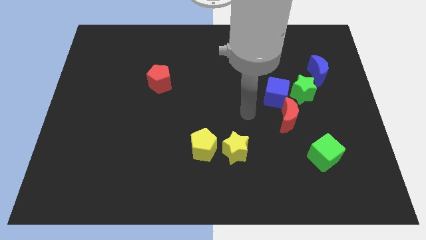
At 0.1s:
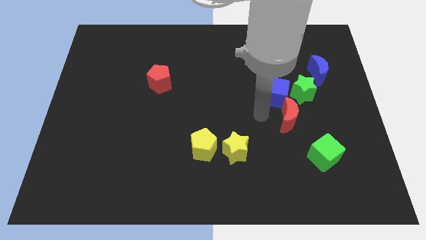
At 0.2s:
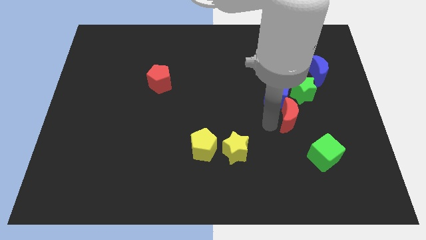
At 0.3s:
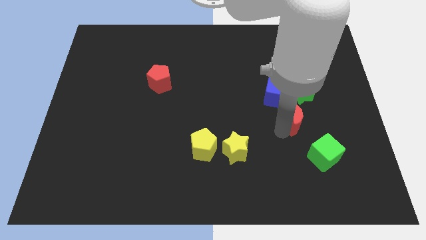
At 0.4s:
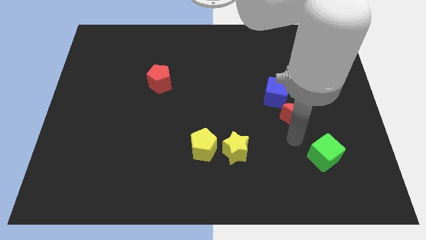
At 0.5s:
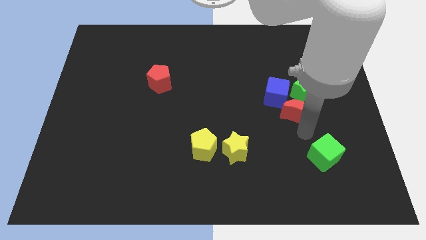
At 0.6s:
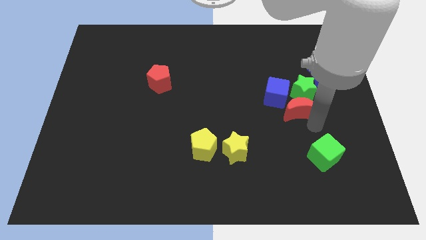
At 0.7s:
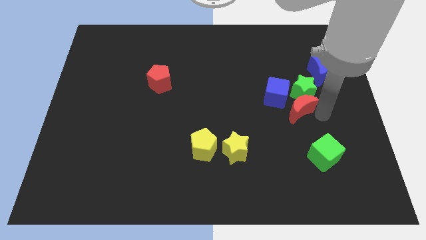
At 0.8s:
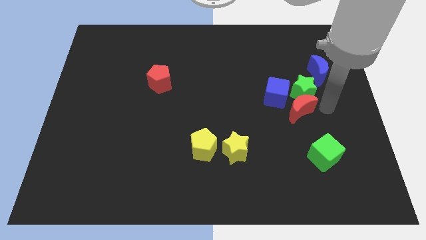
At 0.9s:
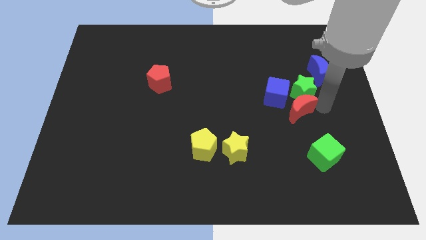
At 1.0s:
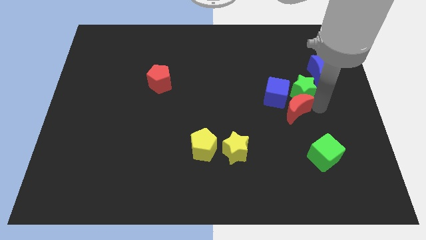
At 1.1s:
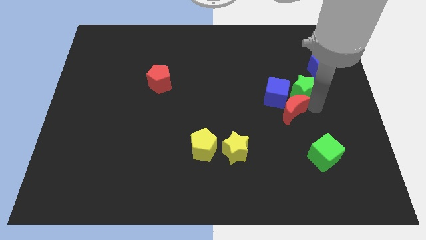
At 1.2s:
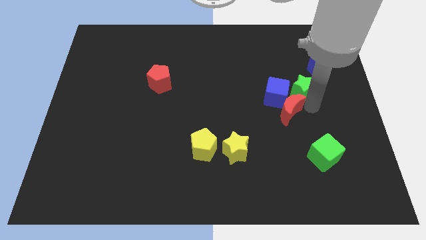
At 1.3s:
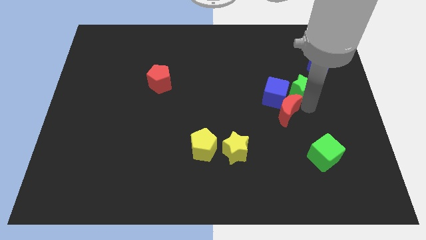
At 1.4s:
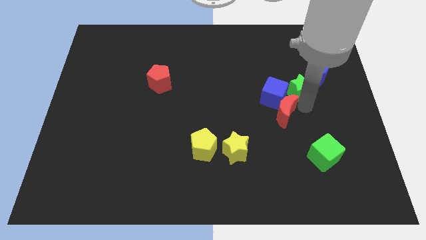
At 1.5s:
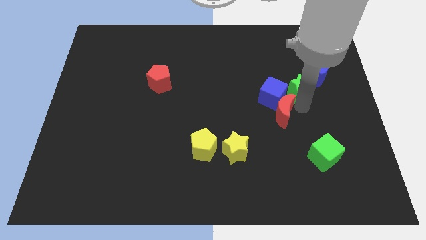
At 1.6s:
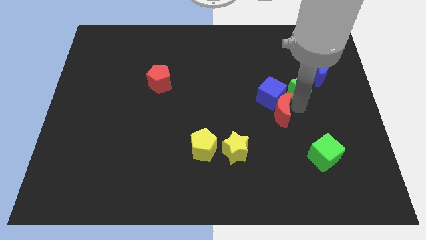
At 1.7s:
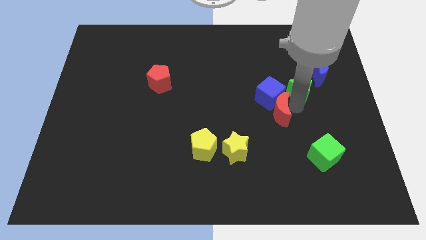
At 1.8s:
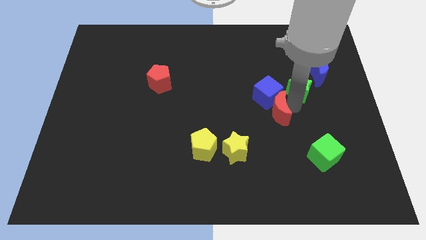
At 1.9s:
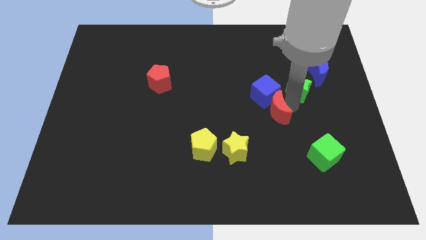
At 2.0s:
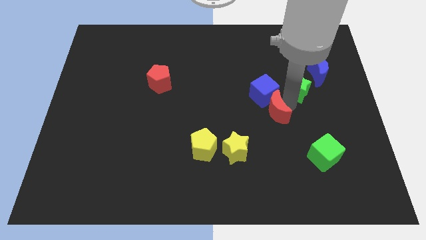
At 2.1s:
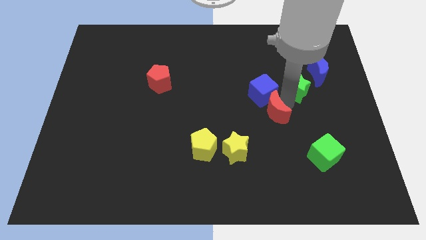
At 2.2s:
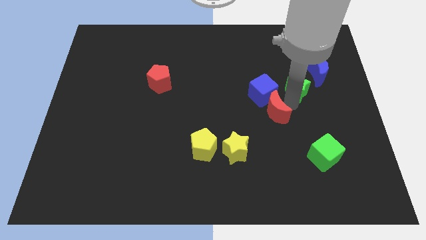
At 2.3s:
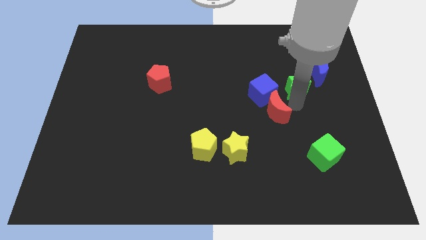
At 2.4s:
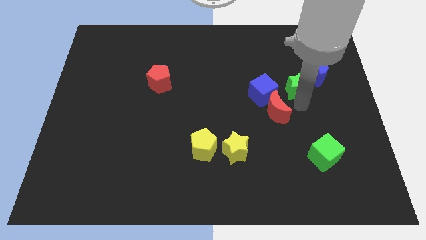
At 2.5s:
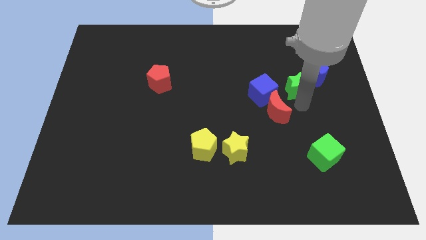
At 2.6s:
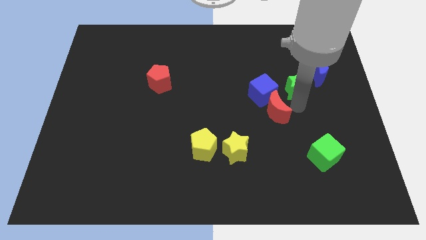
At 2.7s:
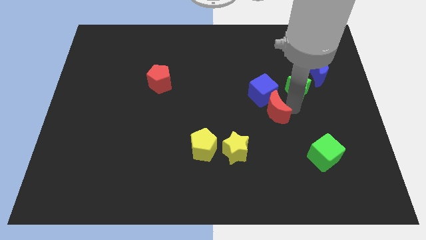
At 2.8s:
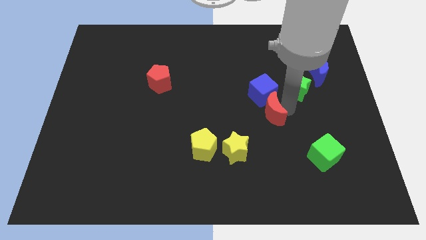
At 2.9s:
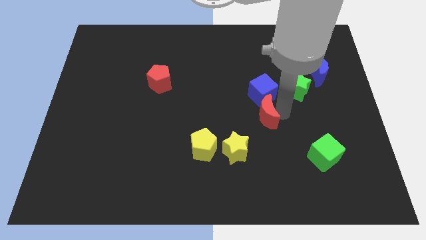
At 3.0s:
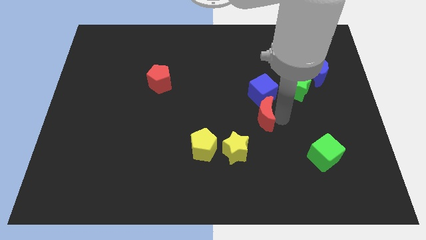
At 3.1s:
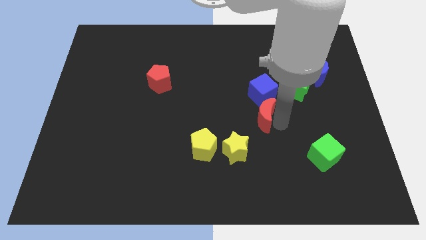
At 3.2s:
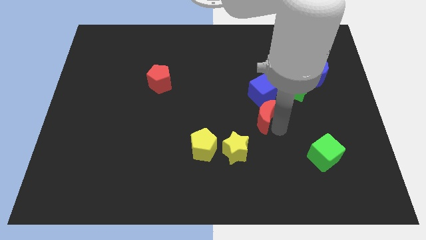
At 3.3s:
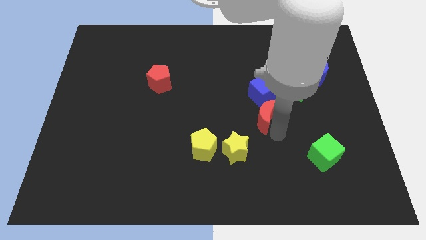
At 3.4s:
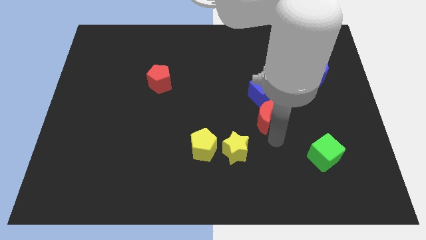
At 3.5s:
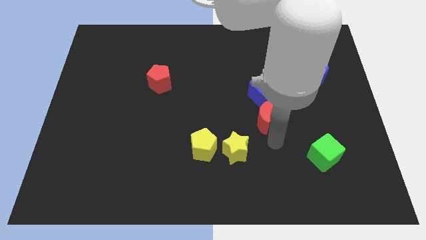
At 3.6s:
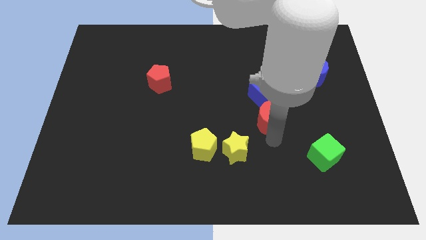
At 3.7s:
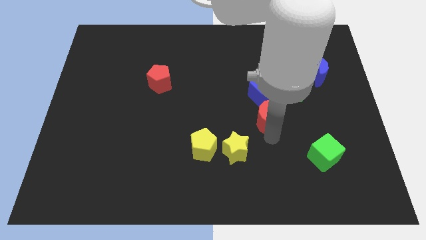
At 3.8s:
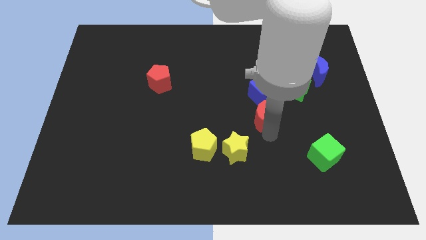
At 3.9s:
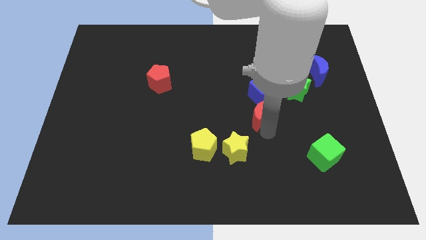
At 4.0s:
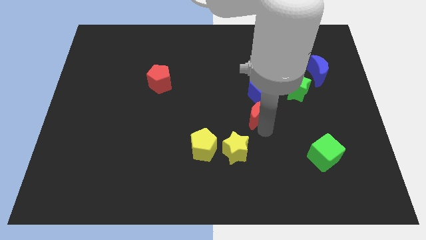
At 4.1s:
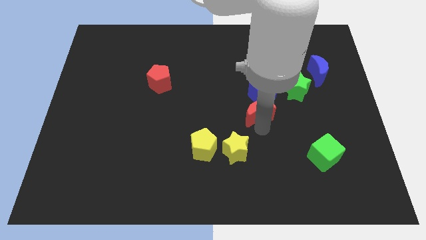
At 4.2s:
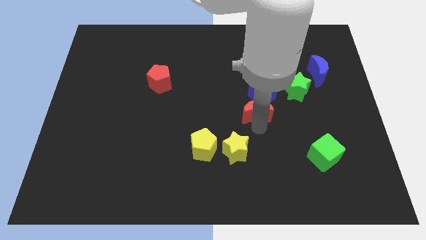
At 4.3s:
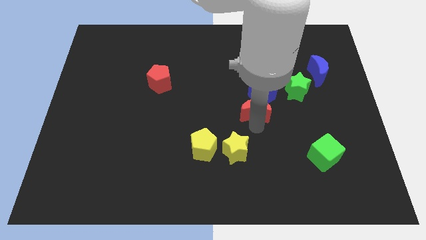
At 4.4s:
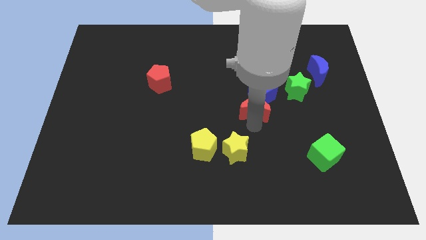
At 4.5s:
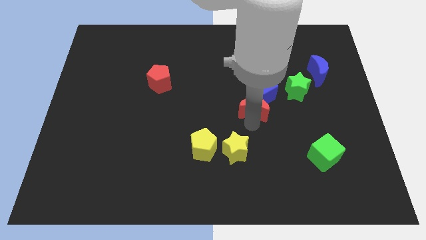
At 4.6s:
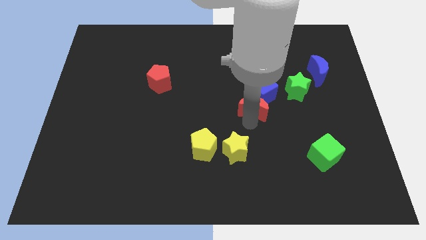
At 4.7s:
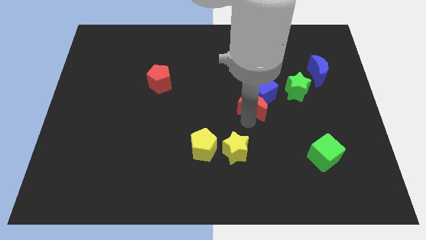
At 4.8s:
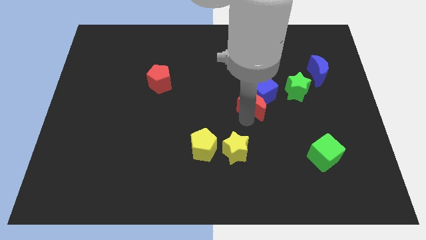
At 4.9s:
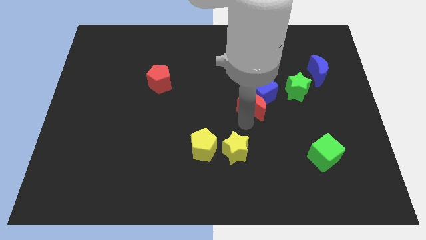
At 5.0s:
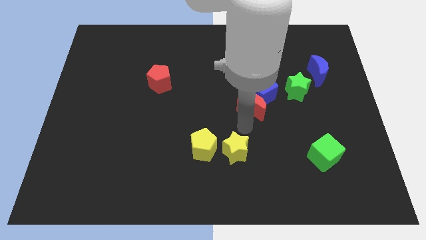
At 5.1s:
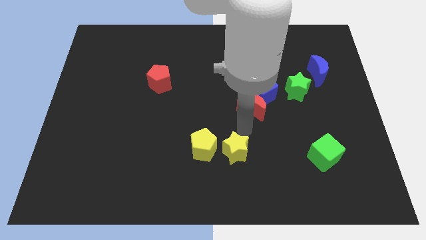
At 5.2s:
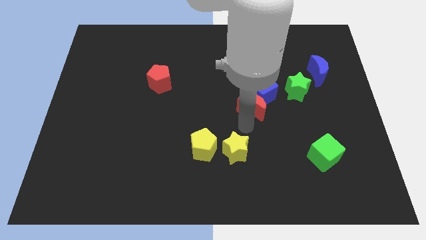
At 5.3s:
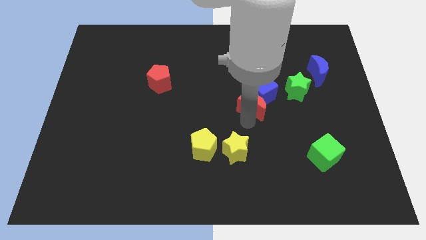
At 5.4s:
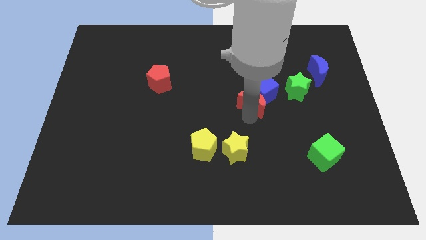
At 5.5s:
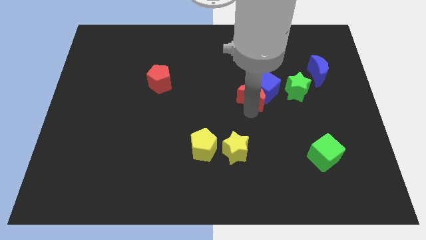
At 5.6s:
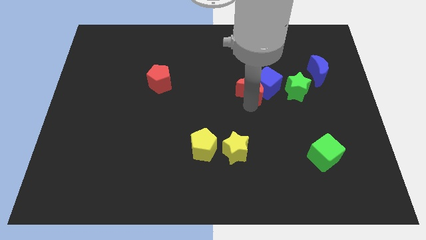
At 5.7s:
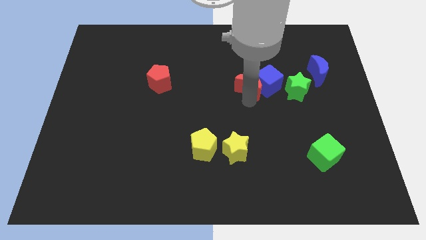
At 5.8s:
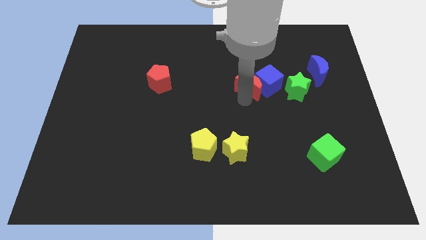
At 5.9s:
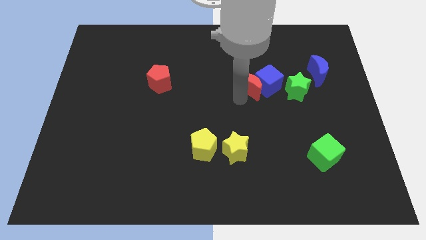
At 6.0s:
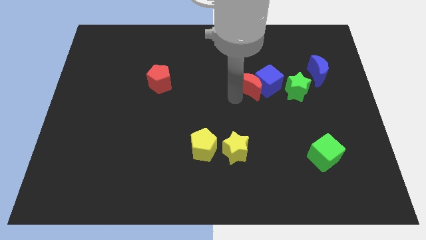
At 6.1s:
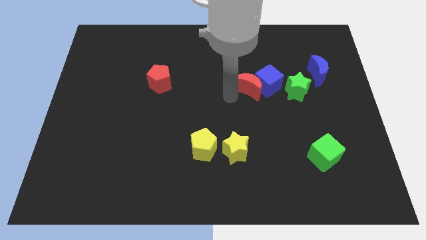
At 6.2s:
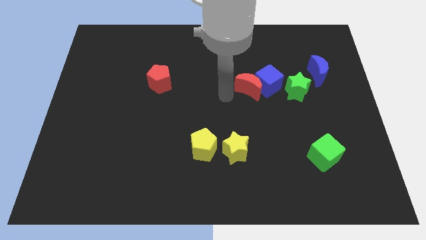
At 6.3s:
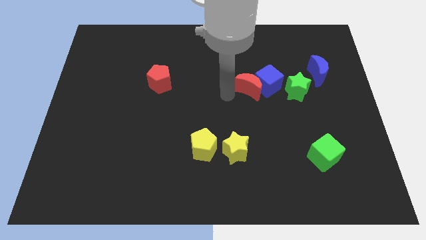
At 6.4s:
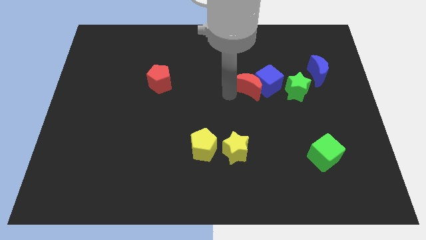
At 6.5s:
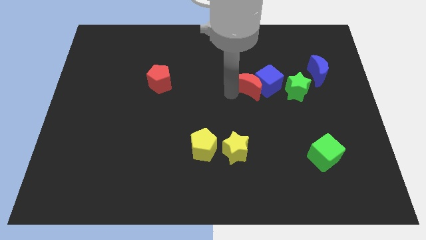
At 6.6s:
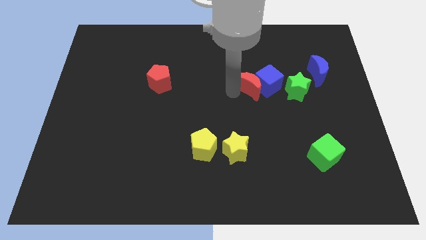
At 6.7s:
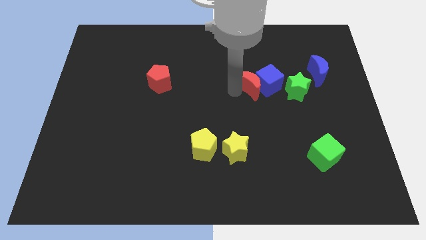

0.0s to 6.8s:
move the red moon a little bit up

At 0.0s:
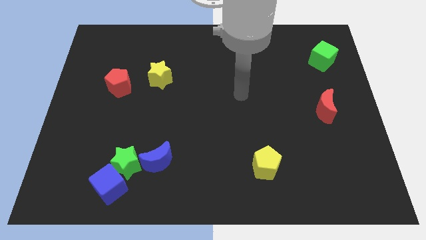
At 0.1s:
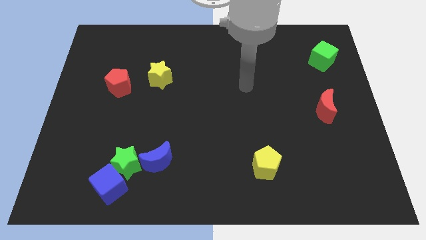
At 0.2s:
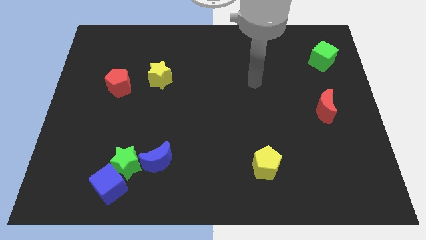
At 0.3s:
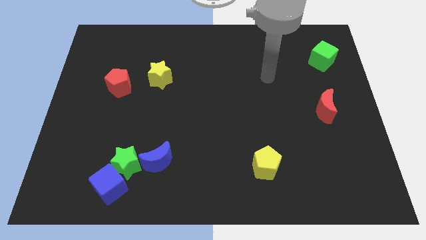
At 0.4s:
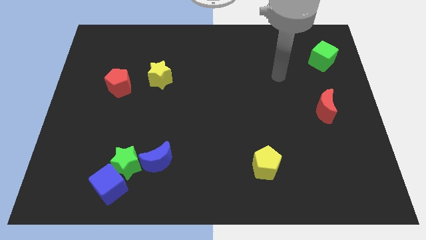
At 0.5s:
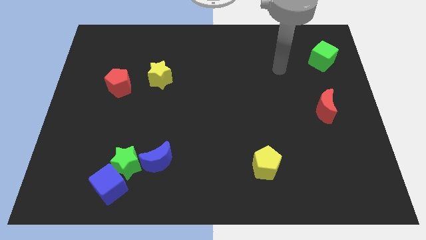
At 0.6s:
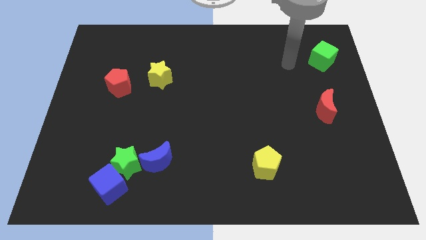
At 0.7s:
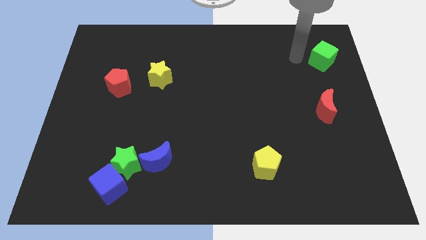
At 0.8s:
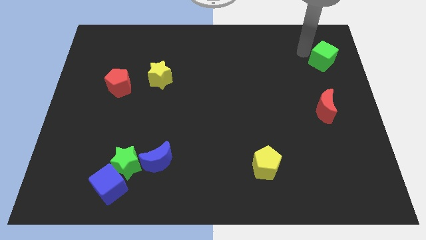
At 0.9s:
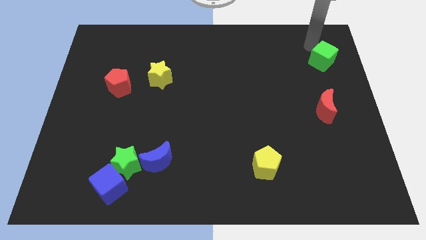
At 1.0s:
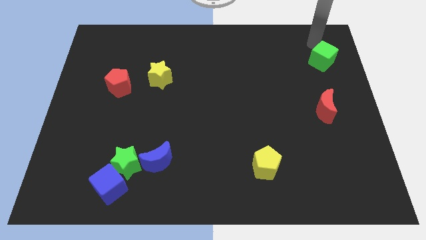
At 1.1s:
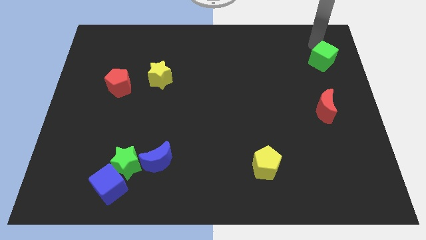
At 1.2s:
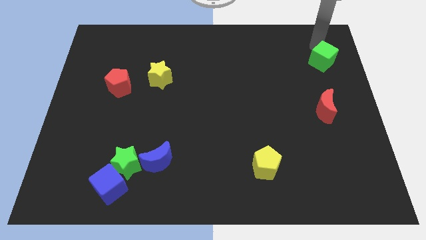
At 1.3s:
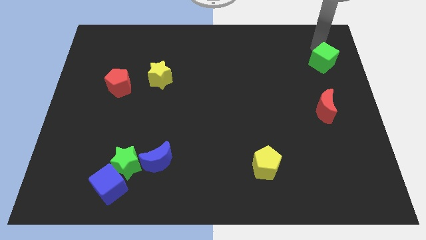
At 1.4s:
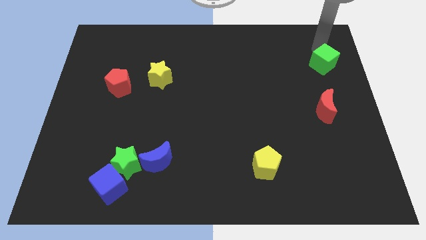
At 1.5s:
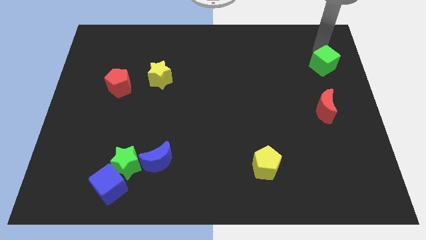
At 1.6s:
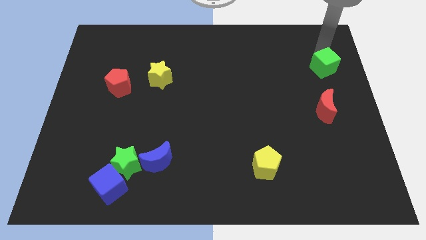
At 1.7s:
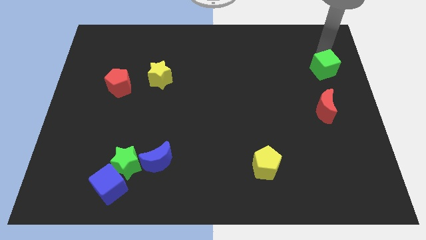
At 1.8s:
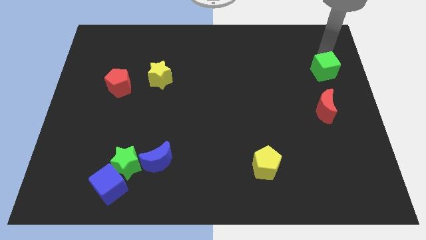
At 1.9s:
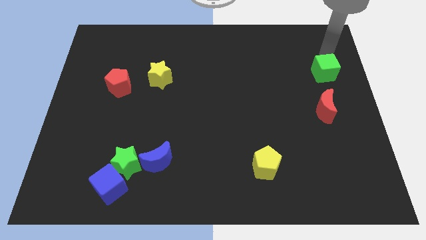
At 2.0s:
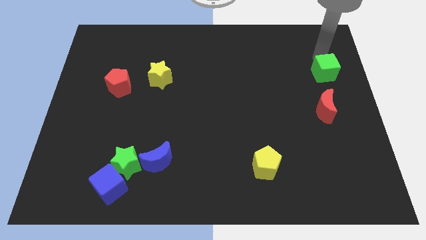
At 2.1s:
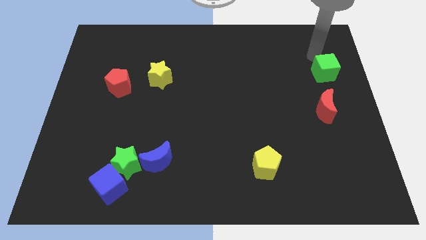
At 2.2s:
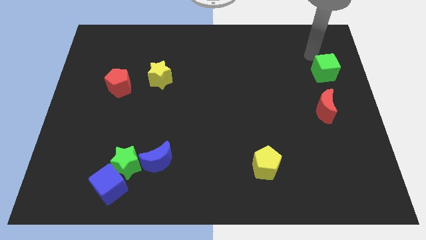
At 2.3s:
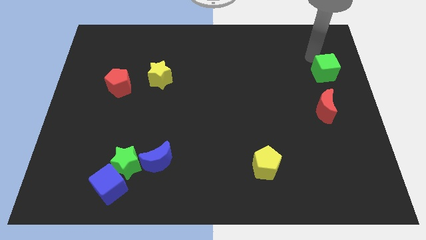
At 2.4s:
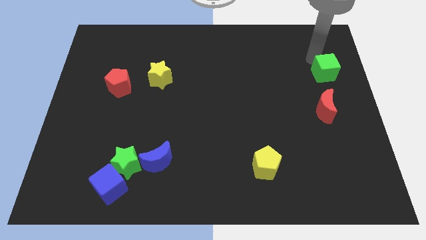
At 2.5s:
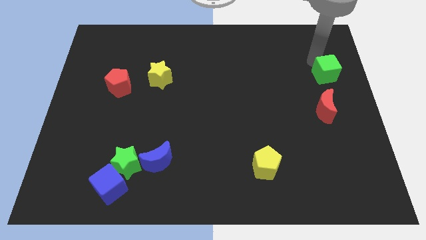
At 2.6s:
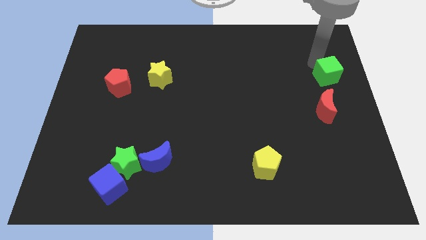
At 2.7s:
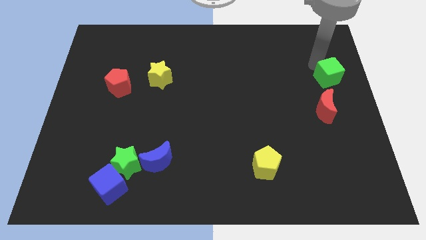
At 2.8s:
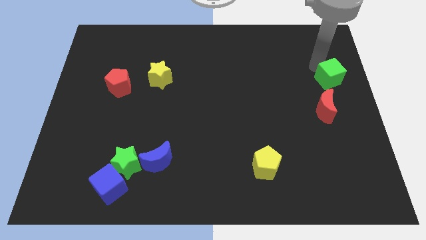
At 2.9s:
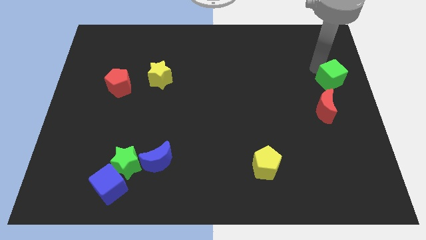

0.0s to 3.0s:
move the green cube somewhat downwards
